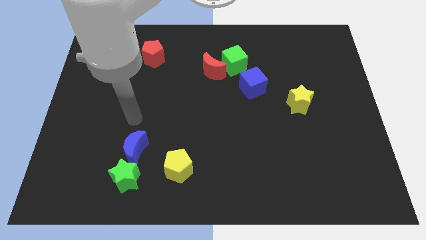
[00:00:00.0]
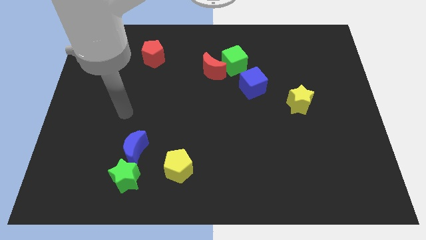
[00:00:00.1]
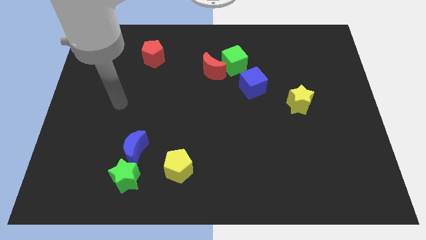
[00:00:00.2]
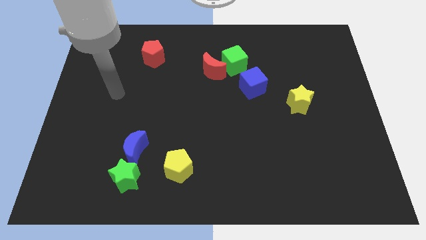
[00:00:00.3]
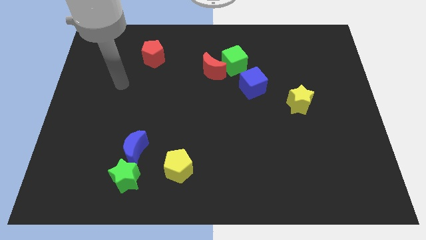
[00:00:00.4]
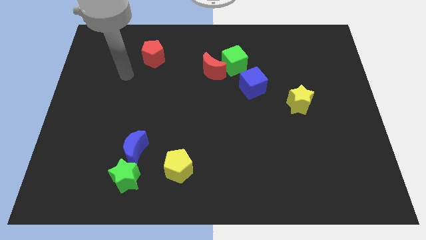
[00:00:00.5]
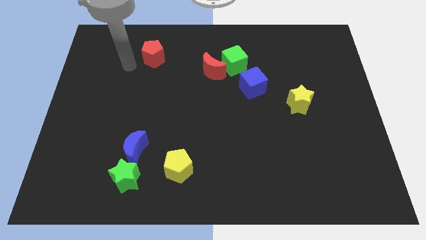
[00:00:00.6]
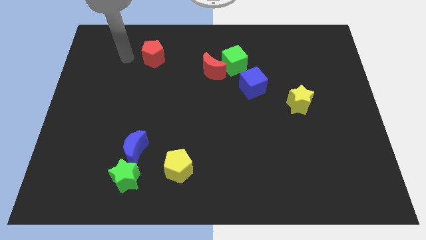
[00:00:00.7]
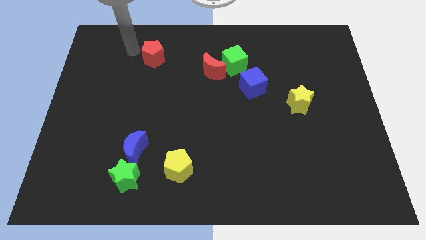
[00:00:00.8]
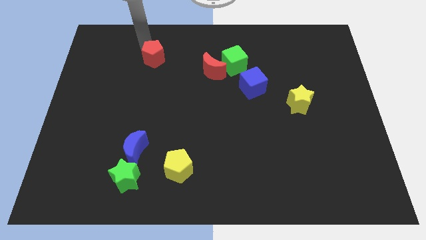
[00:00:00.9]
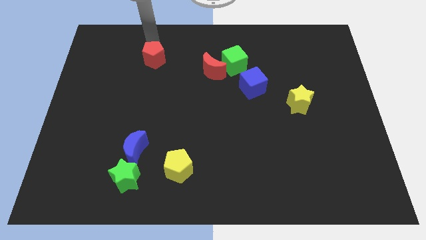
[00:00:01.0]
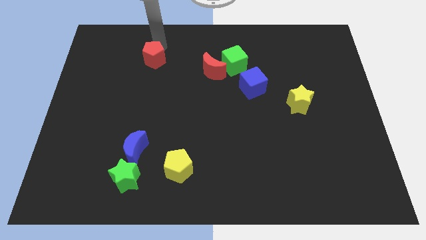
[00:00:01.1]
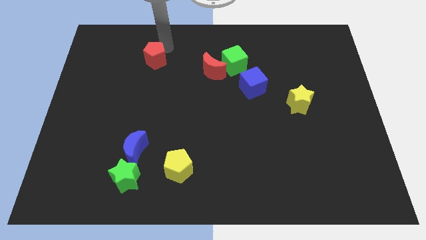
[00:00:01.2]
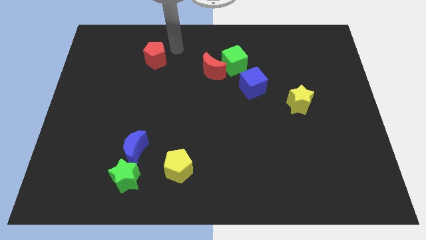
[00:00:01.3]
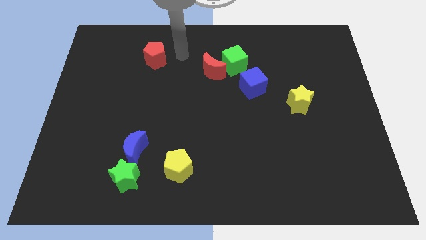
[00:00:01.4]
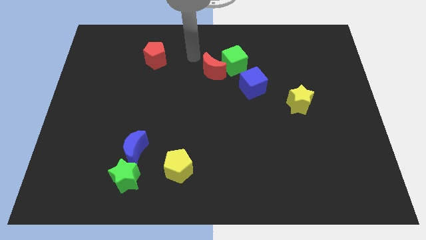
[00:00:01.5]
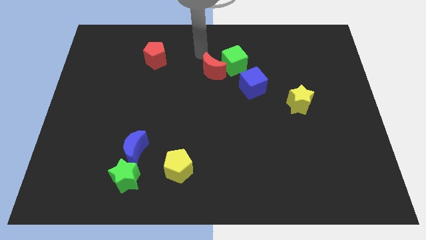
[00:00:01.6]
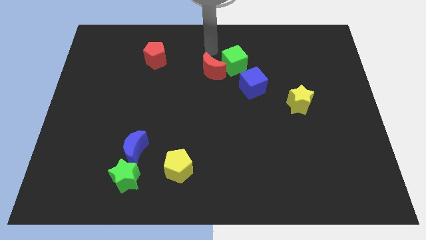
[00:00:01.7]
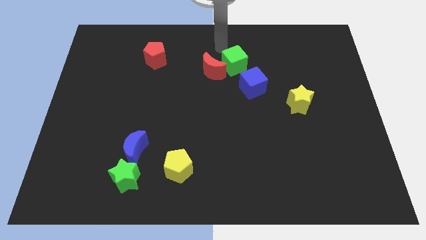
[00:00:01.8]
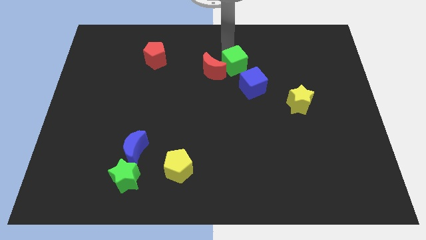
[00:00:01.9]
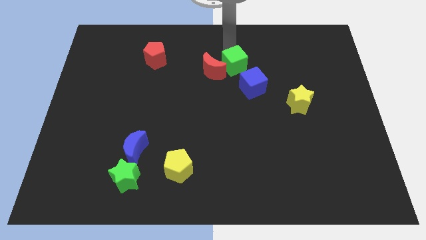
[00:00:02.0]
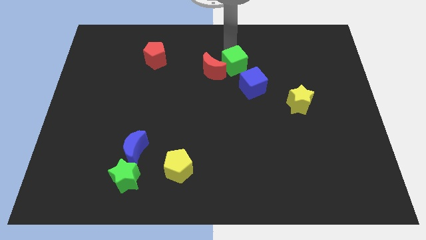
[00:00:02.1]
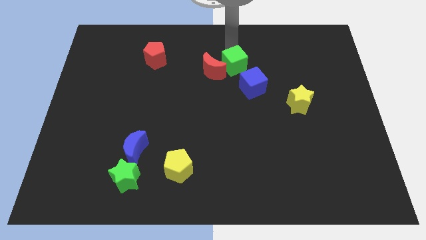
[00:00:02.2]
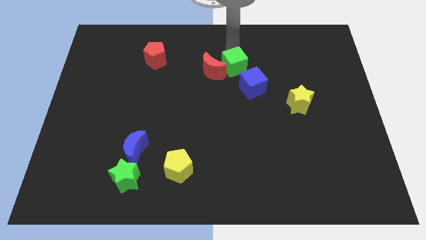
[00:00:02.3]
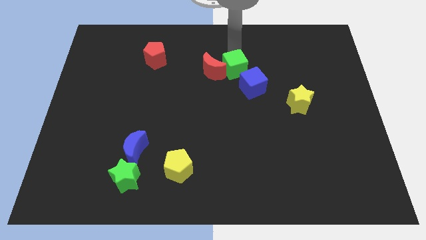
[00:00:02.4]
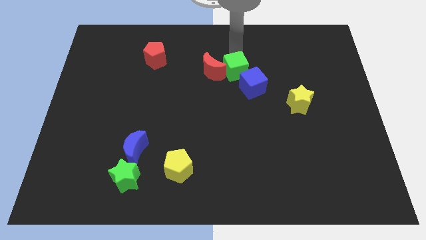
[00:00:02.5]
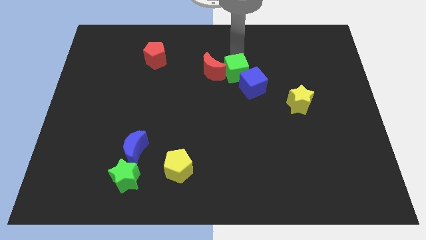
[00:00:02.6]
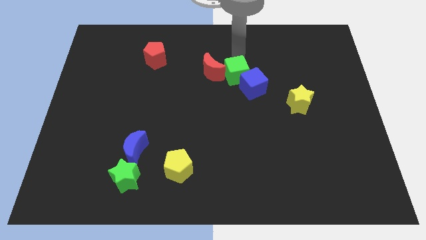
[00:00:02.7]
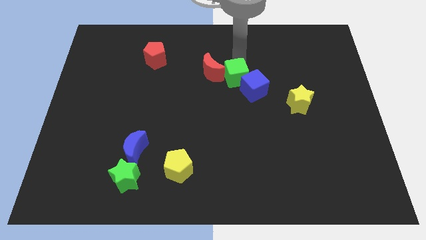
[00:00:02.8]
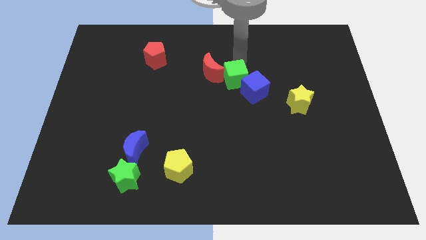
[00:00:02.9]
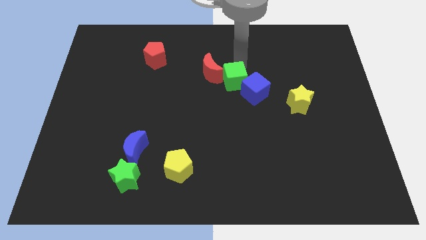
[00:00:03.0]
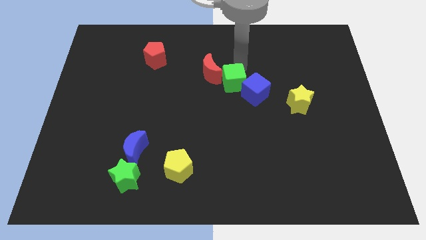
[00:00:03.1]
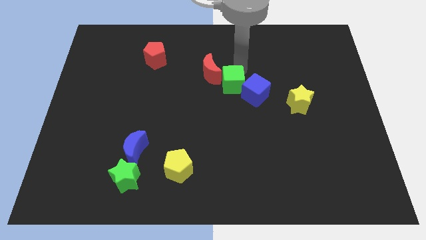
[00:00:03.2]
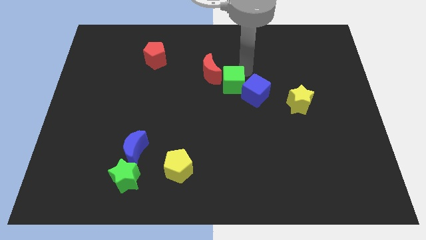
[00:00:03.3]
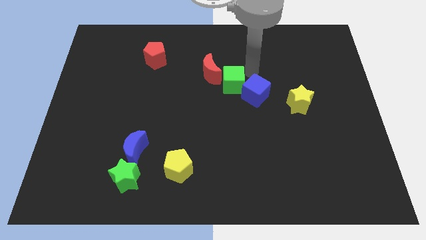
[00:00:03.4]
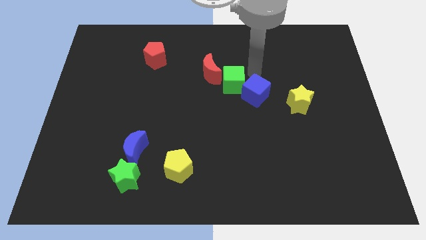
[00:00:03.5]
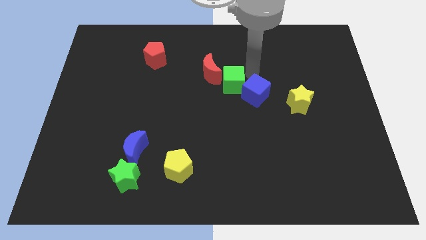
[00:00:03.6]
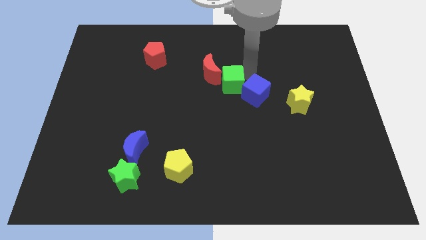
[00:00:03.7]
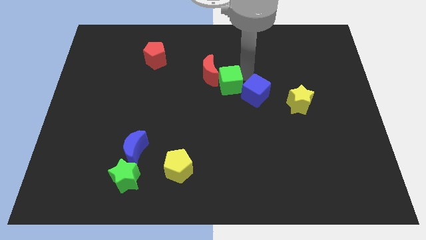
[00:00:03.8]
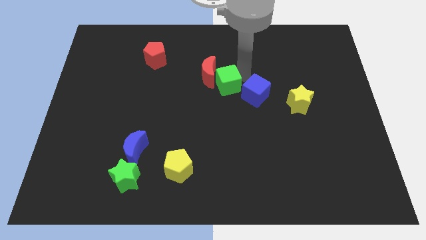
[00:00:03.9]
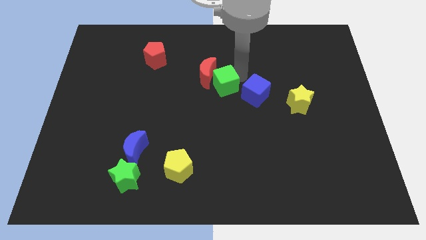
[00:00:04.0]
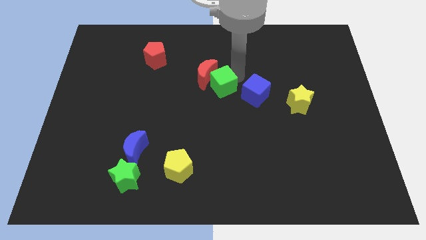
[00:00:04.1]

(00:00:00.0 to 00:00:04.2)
move the green cube down and left a little bit

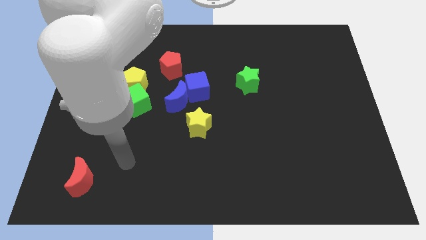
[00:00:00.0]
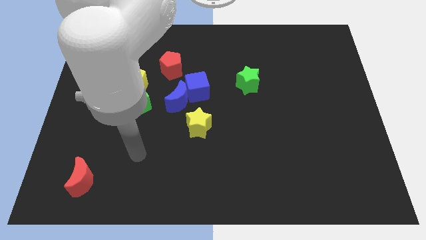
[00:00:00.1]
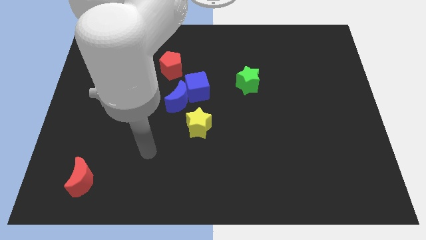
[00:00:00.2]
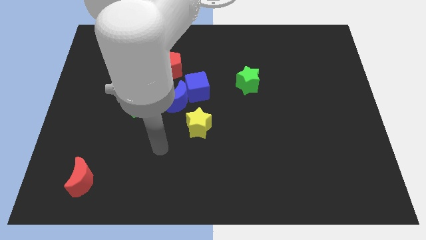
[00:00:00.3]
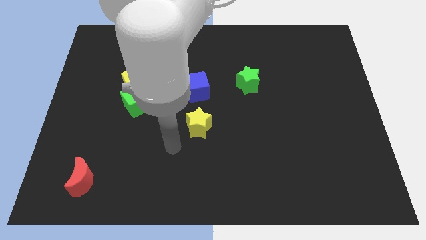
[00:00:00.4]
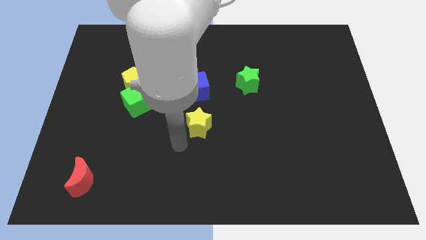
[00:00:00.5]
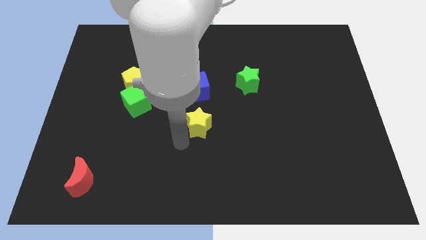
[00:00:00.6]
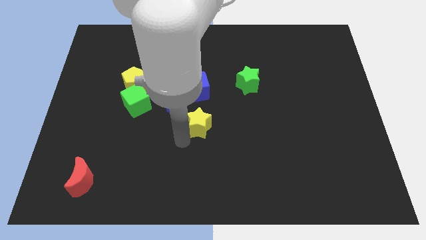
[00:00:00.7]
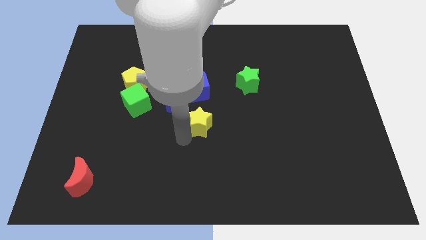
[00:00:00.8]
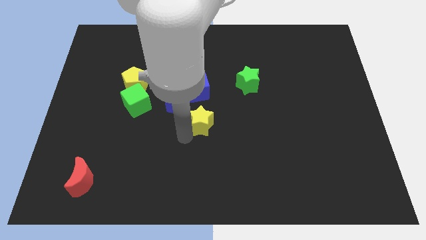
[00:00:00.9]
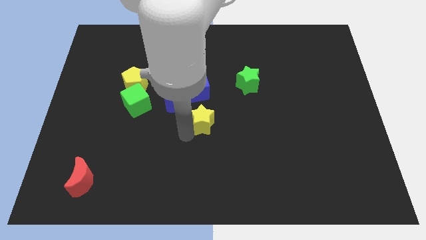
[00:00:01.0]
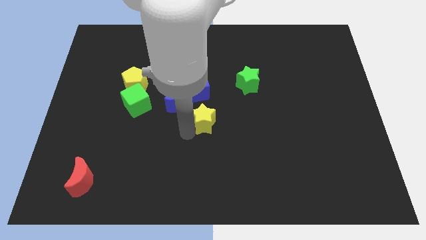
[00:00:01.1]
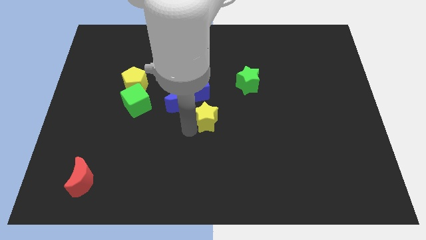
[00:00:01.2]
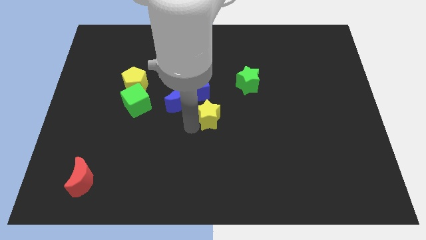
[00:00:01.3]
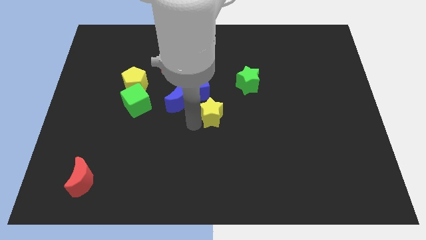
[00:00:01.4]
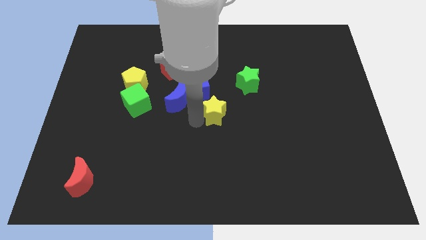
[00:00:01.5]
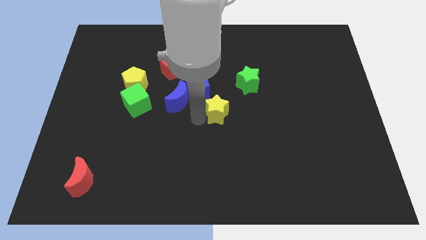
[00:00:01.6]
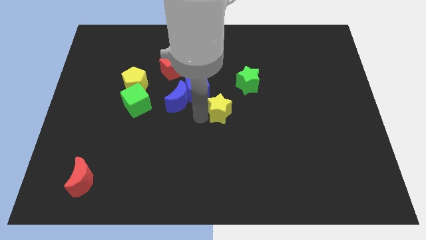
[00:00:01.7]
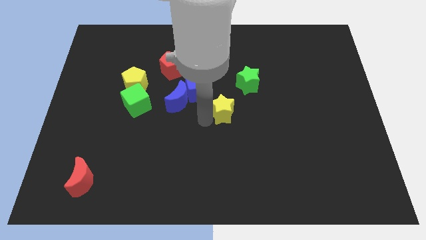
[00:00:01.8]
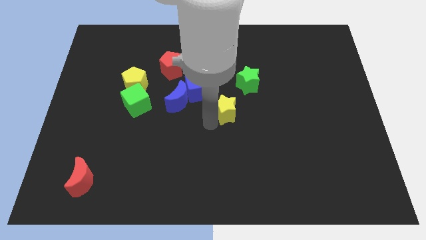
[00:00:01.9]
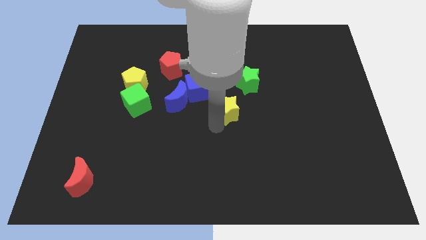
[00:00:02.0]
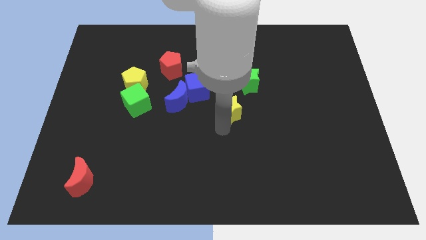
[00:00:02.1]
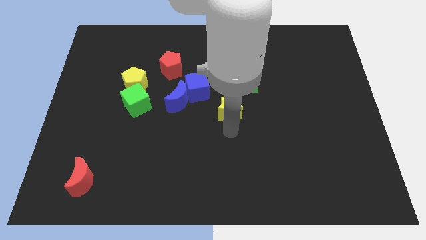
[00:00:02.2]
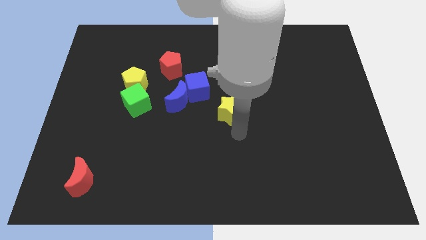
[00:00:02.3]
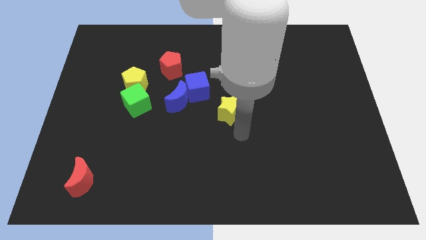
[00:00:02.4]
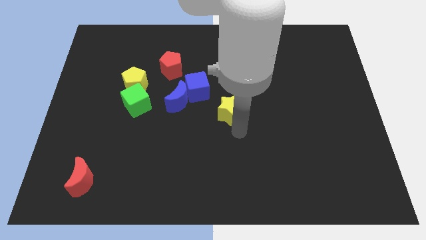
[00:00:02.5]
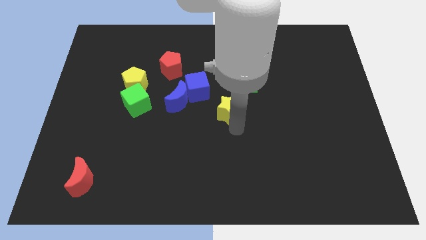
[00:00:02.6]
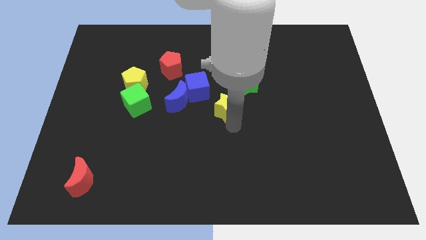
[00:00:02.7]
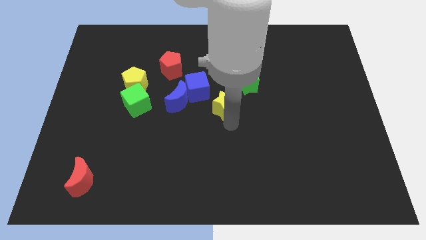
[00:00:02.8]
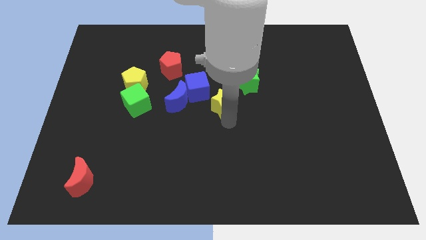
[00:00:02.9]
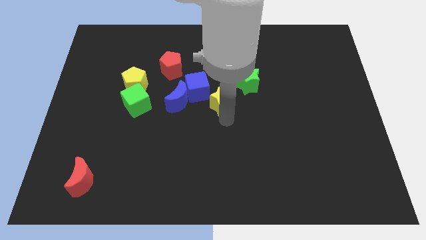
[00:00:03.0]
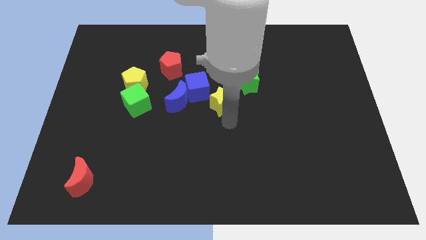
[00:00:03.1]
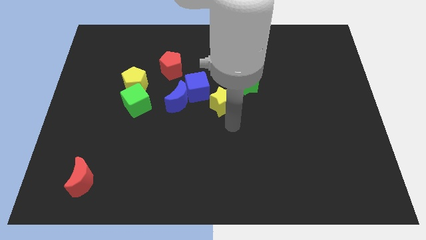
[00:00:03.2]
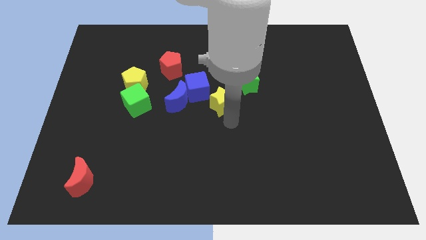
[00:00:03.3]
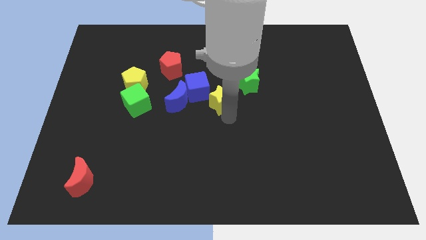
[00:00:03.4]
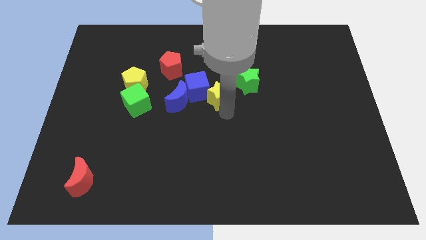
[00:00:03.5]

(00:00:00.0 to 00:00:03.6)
slightly move the yellow star up
